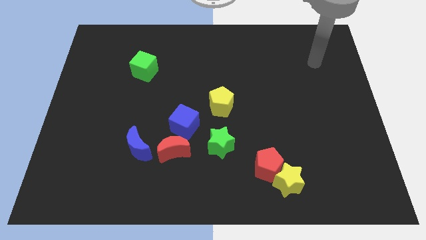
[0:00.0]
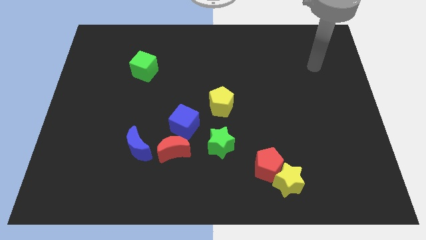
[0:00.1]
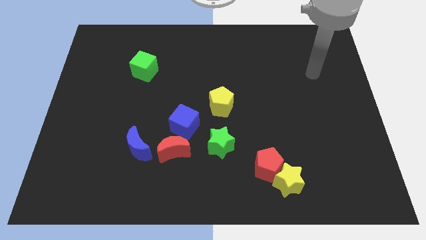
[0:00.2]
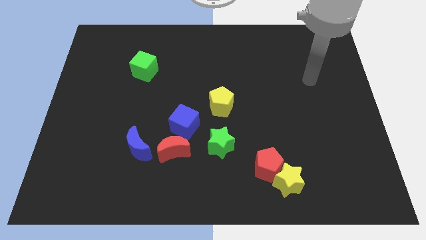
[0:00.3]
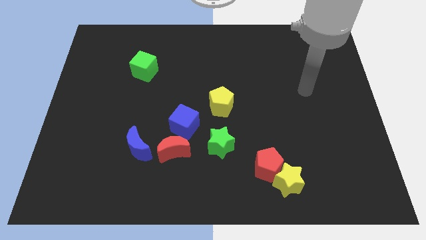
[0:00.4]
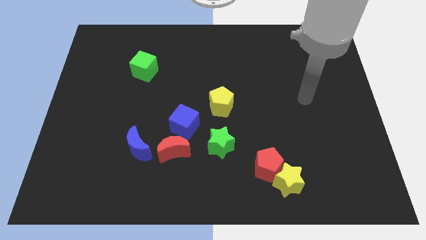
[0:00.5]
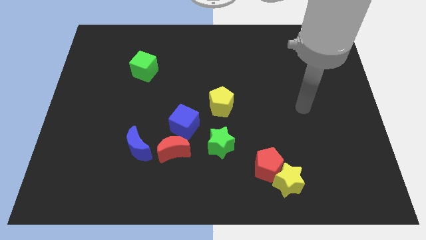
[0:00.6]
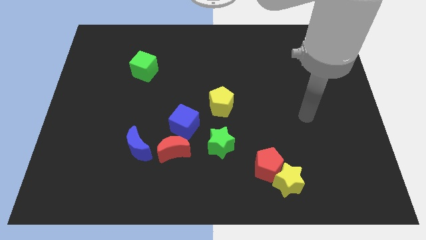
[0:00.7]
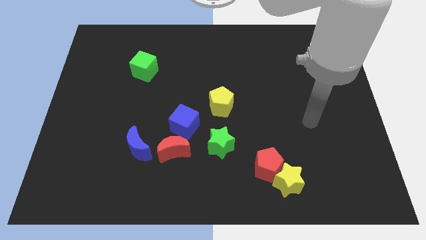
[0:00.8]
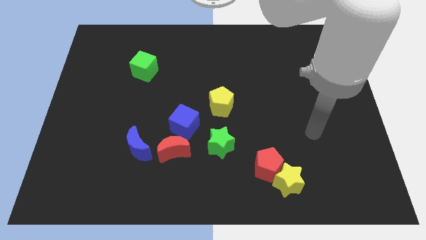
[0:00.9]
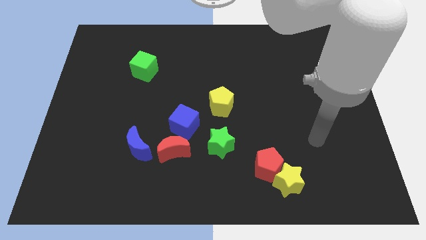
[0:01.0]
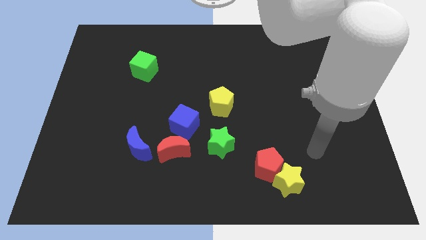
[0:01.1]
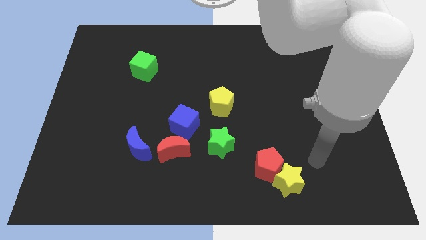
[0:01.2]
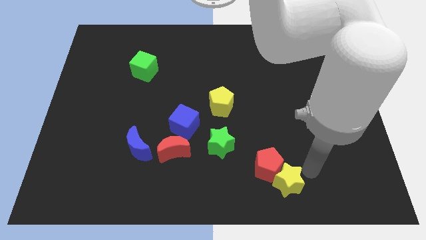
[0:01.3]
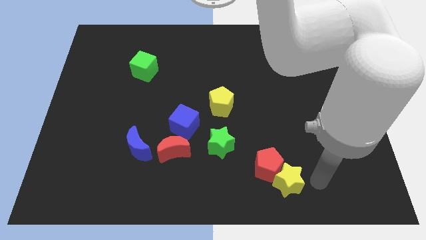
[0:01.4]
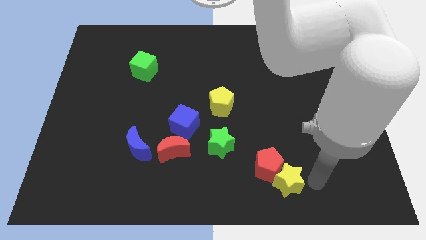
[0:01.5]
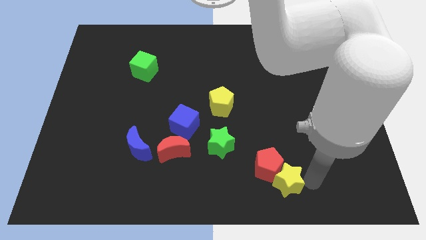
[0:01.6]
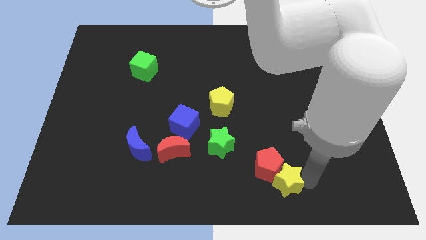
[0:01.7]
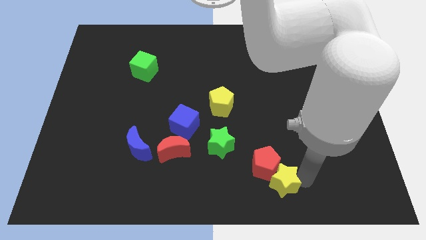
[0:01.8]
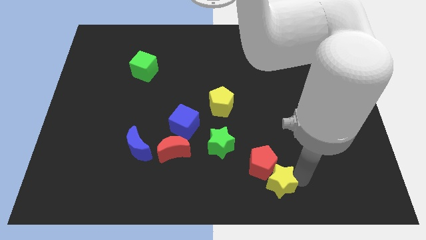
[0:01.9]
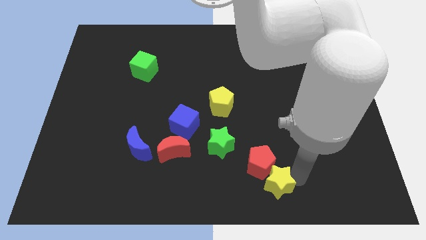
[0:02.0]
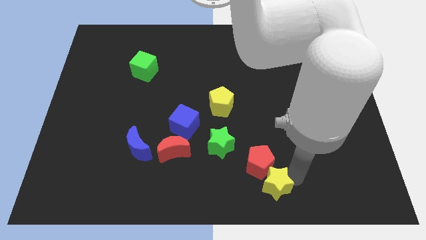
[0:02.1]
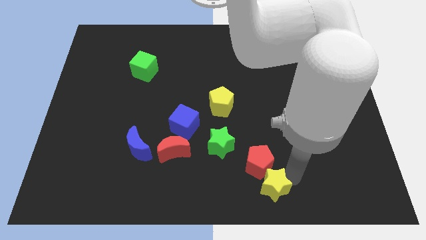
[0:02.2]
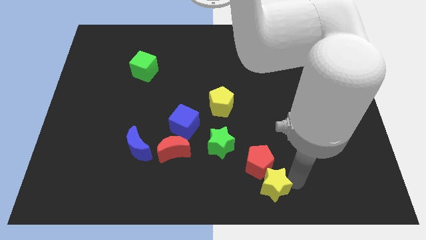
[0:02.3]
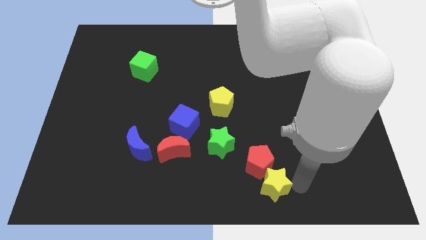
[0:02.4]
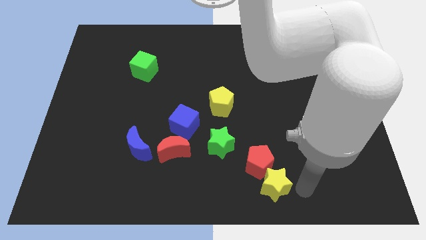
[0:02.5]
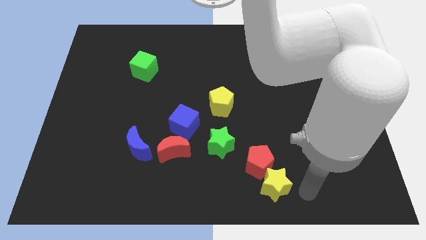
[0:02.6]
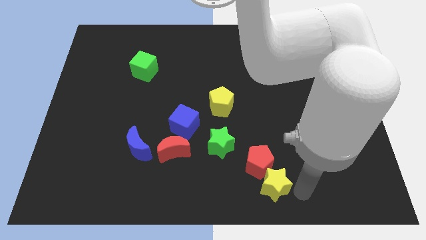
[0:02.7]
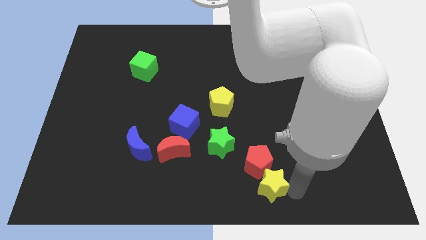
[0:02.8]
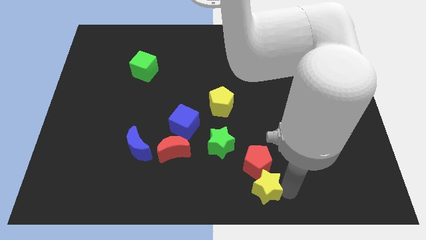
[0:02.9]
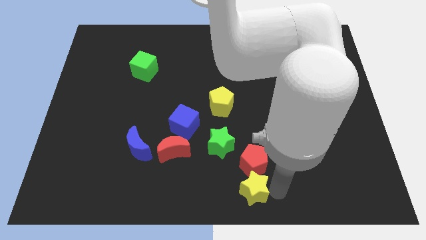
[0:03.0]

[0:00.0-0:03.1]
slightly slide the yellow star left

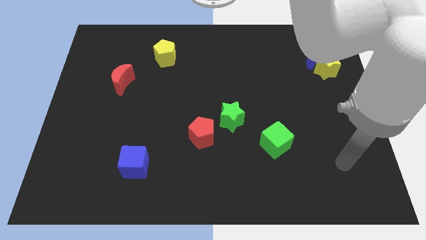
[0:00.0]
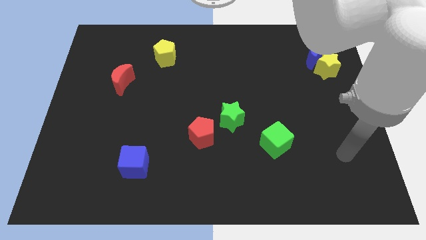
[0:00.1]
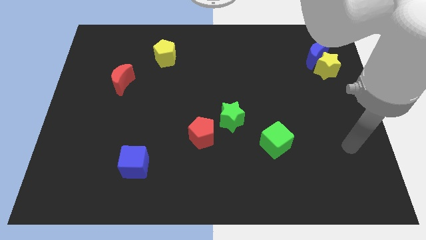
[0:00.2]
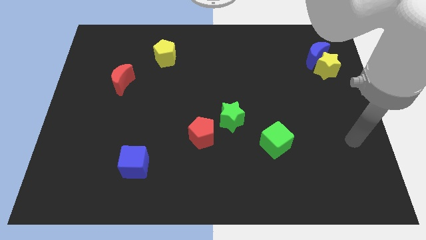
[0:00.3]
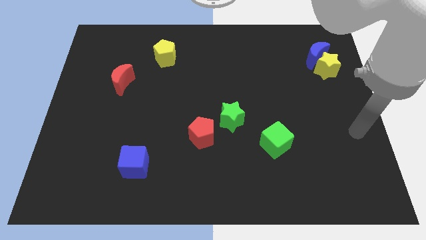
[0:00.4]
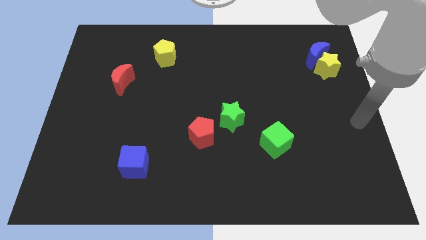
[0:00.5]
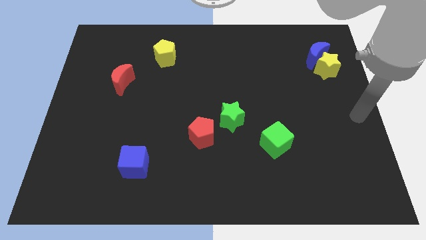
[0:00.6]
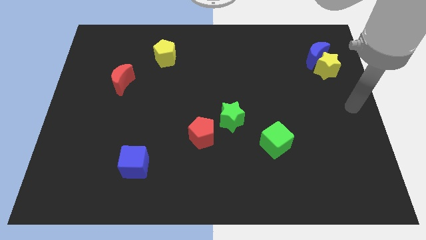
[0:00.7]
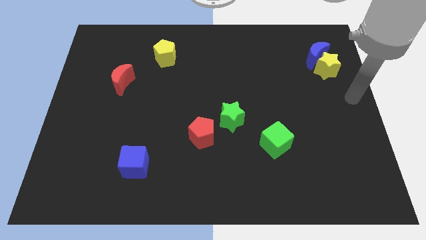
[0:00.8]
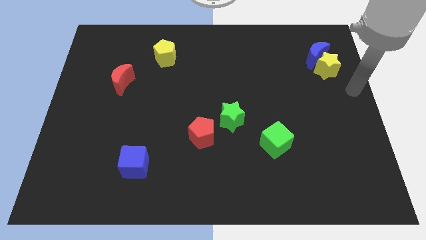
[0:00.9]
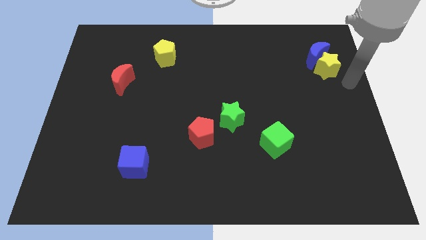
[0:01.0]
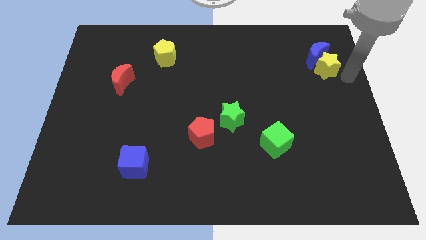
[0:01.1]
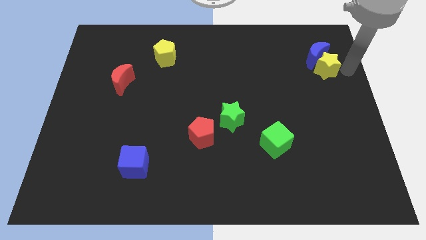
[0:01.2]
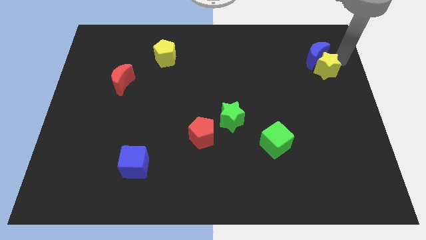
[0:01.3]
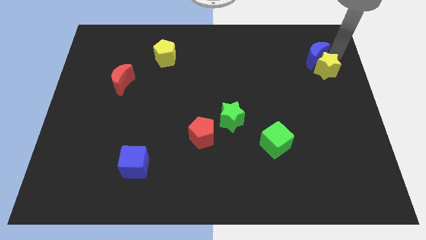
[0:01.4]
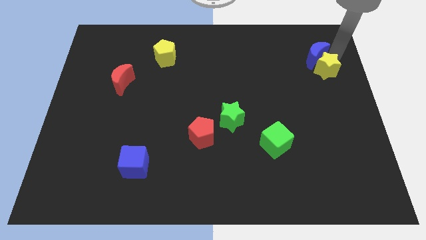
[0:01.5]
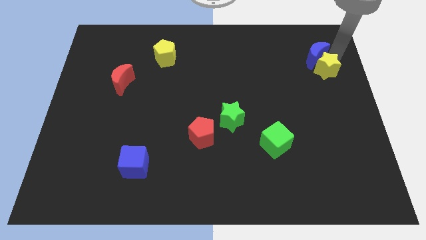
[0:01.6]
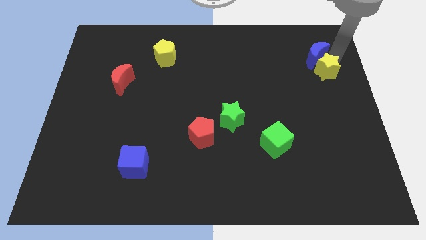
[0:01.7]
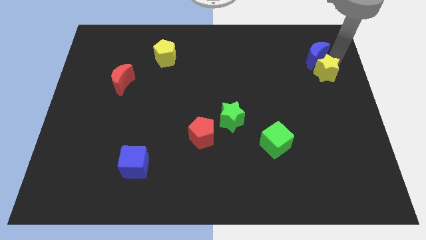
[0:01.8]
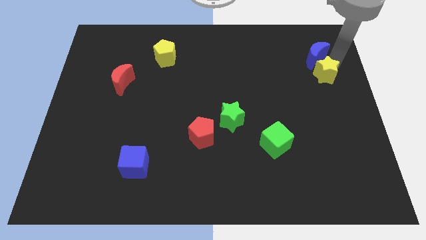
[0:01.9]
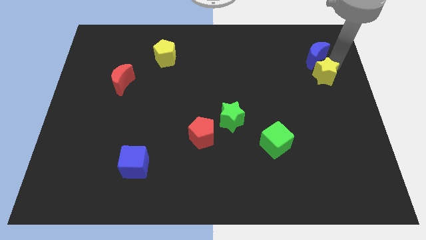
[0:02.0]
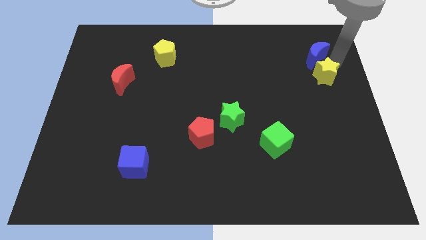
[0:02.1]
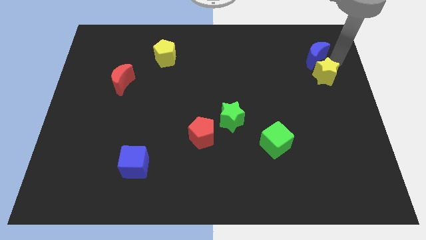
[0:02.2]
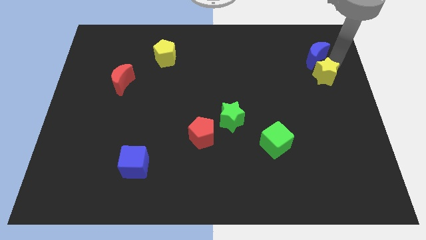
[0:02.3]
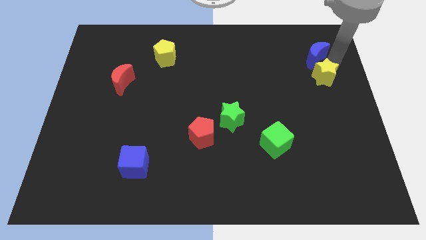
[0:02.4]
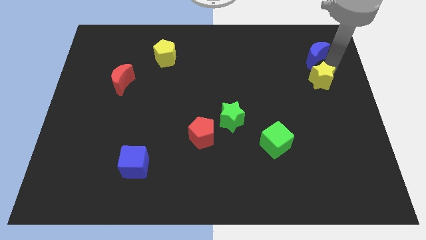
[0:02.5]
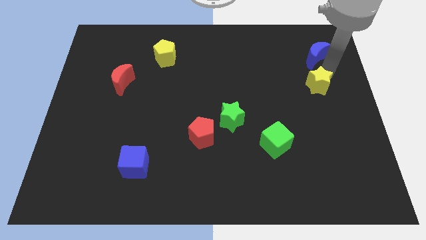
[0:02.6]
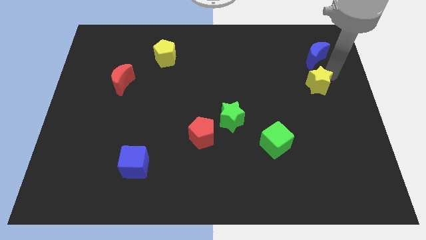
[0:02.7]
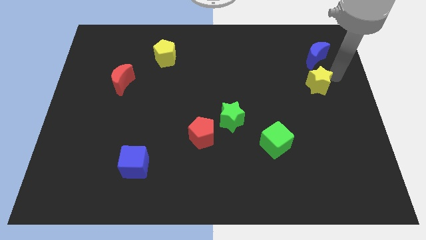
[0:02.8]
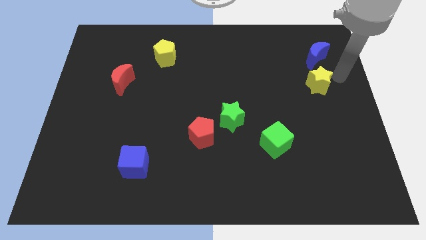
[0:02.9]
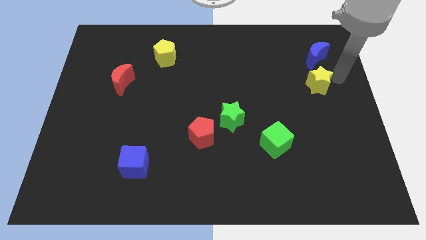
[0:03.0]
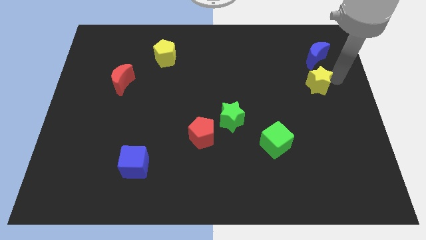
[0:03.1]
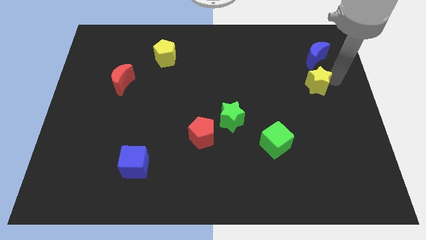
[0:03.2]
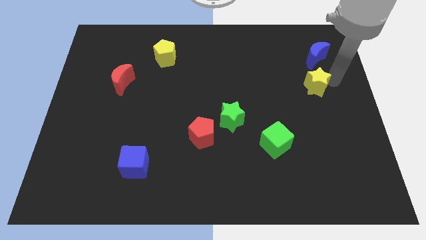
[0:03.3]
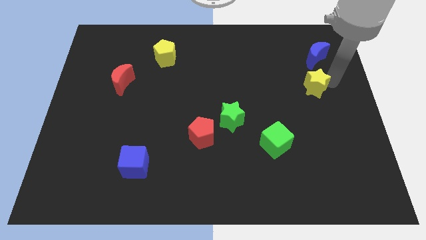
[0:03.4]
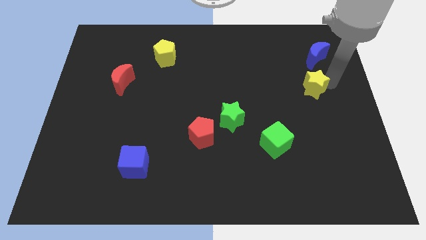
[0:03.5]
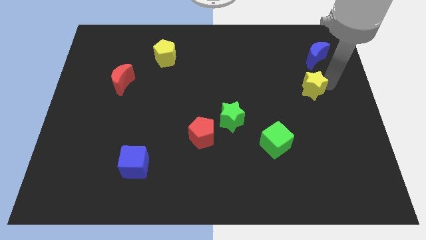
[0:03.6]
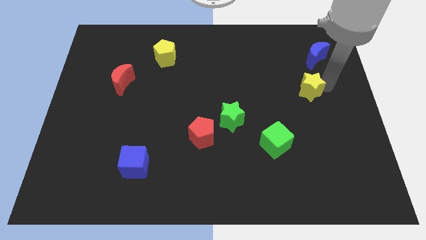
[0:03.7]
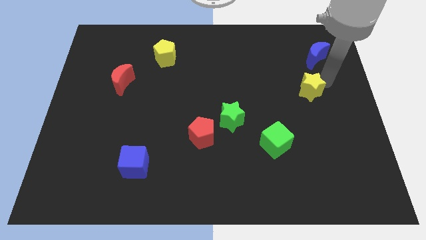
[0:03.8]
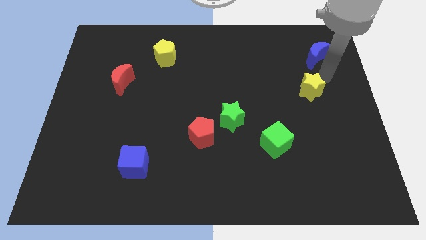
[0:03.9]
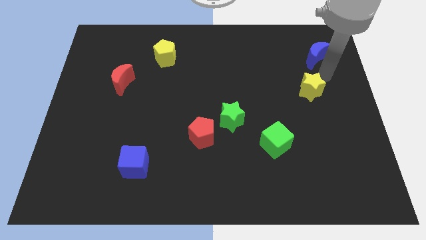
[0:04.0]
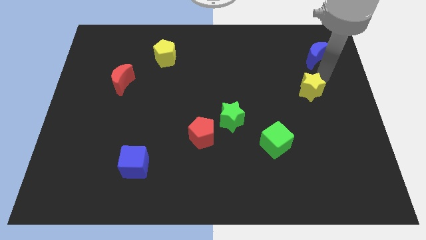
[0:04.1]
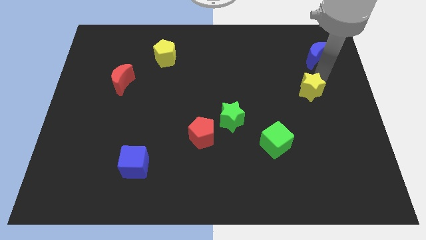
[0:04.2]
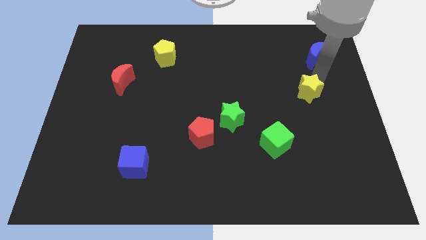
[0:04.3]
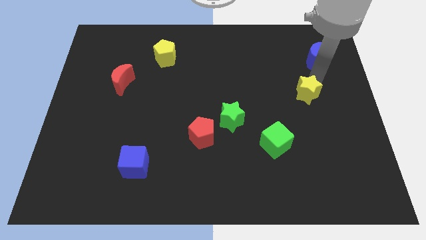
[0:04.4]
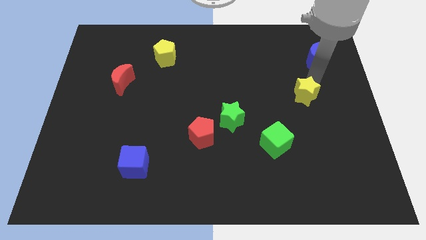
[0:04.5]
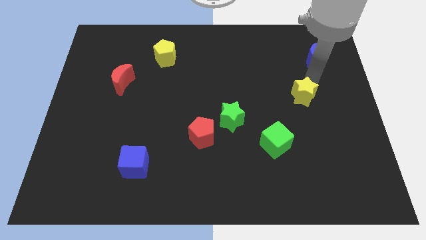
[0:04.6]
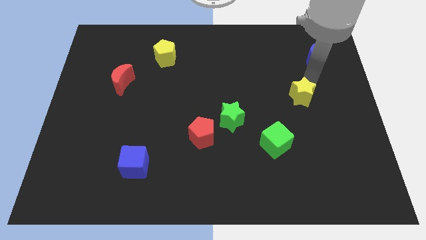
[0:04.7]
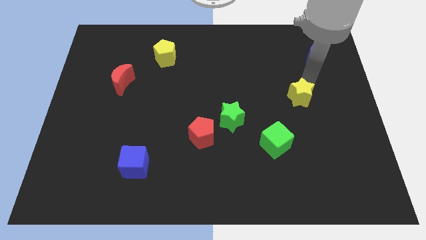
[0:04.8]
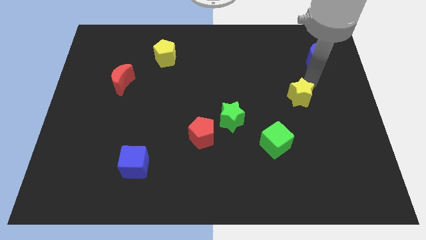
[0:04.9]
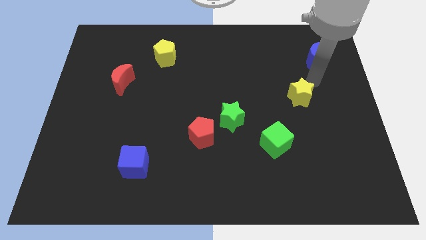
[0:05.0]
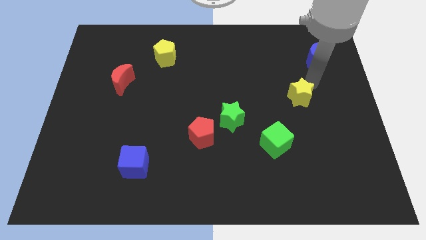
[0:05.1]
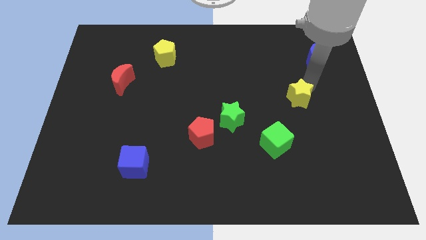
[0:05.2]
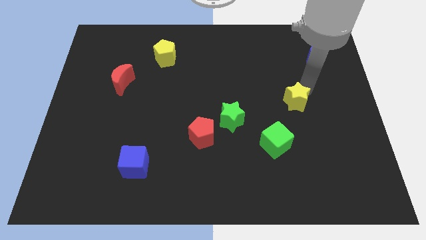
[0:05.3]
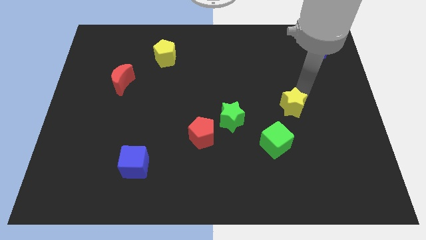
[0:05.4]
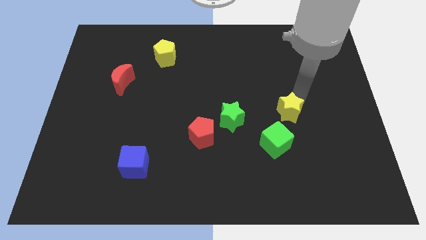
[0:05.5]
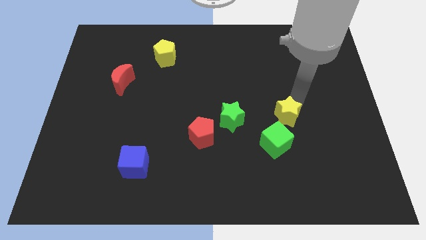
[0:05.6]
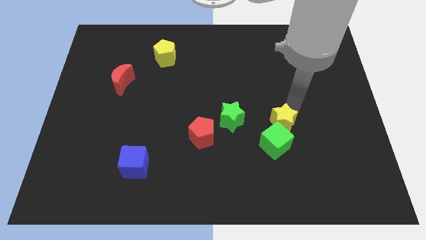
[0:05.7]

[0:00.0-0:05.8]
push the yellow star down and to the left diagonally
